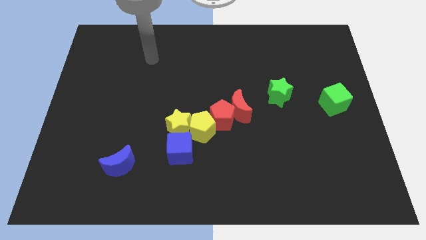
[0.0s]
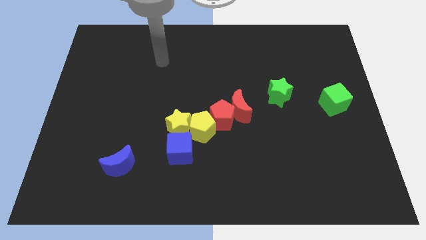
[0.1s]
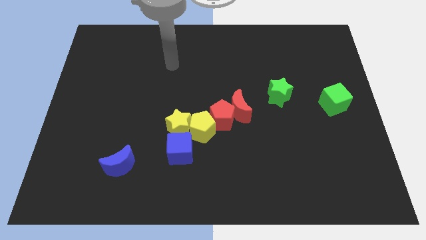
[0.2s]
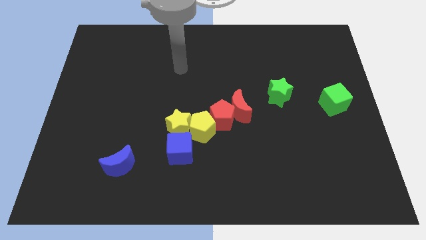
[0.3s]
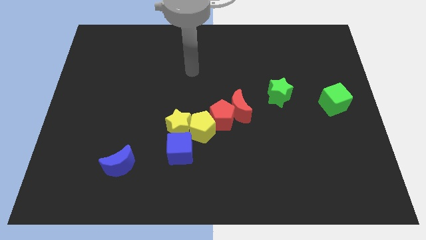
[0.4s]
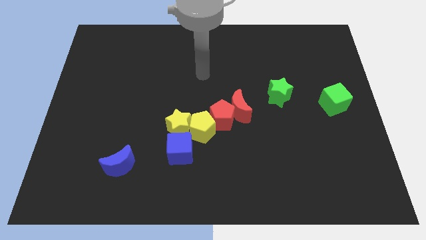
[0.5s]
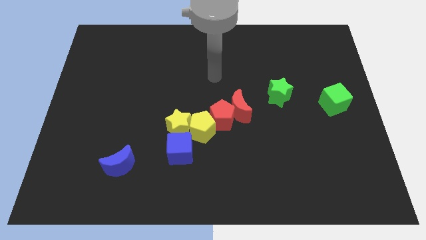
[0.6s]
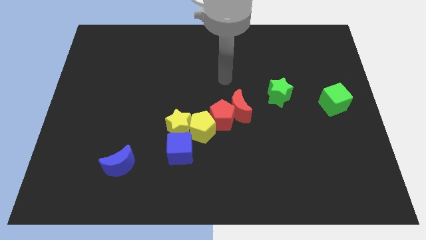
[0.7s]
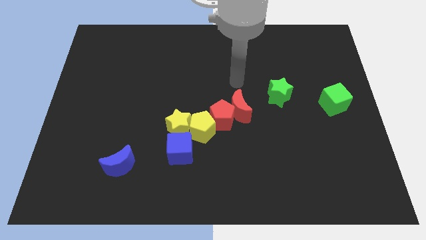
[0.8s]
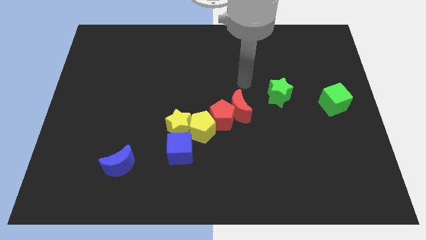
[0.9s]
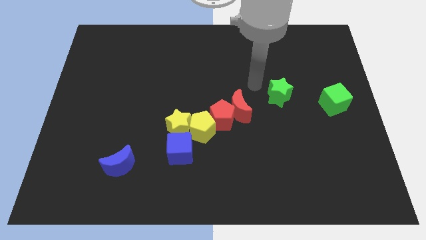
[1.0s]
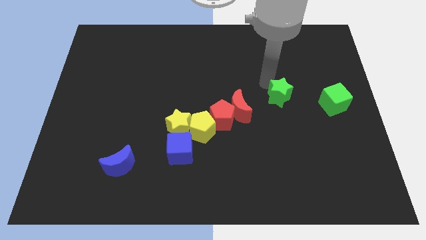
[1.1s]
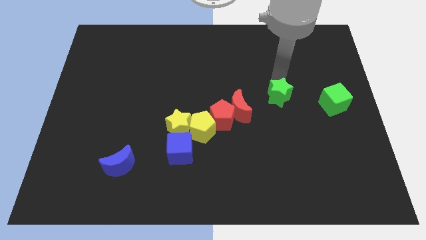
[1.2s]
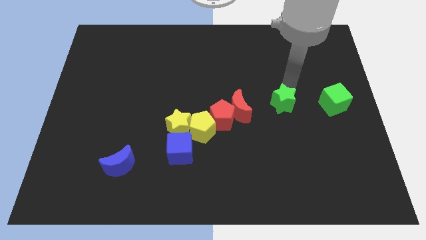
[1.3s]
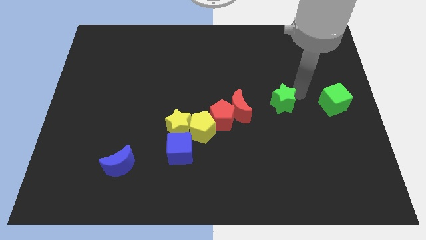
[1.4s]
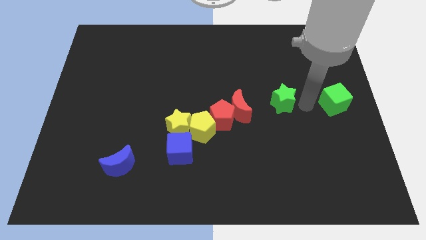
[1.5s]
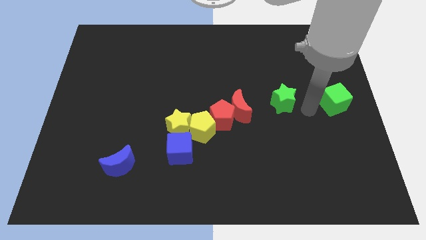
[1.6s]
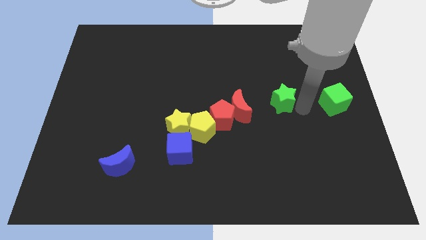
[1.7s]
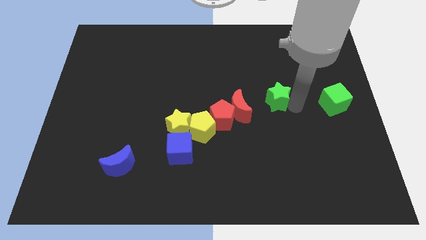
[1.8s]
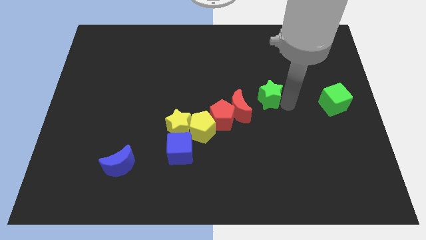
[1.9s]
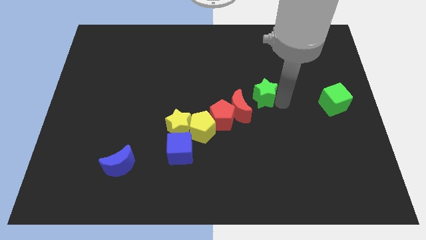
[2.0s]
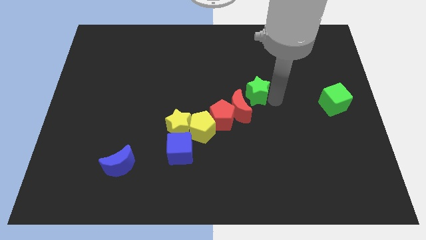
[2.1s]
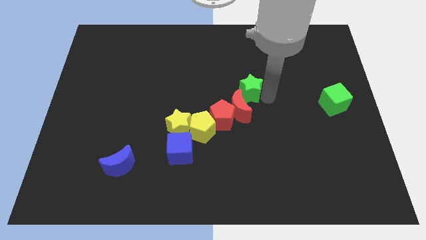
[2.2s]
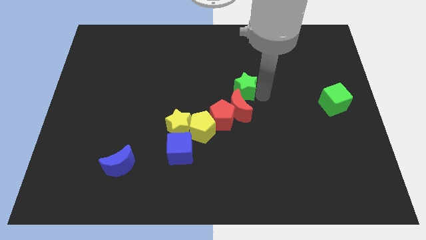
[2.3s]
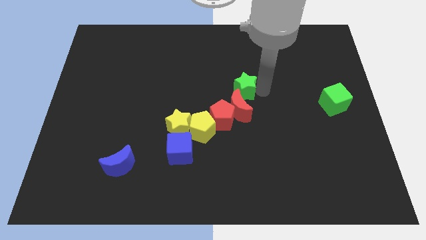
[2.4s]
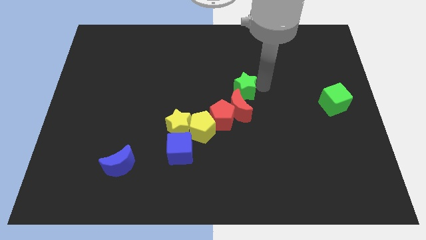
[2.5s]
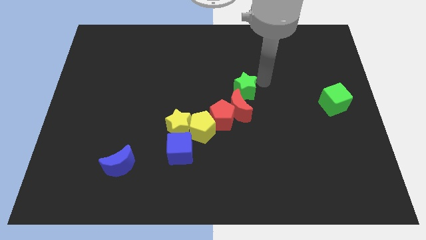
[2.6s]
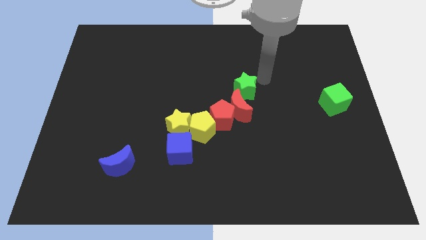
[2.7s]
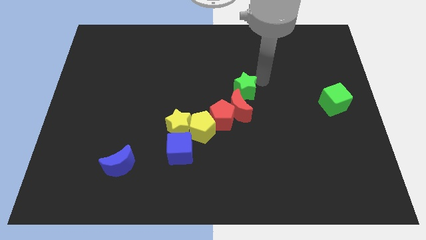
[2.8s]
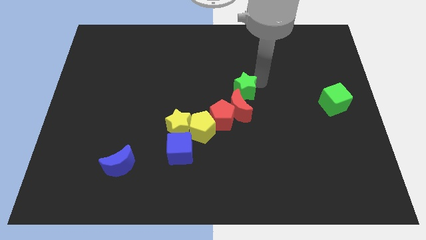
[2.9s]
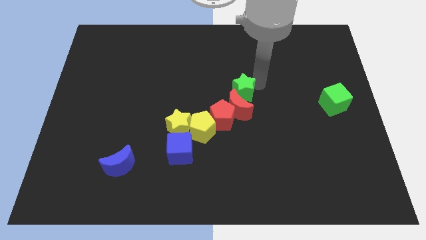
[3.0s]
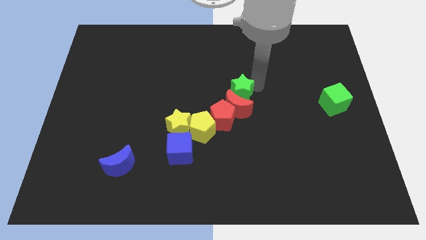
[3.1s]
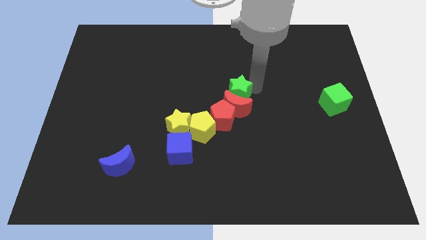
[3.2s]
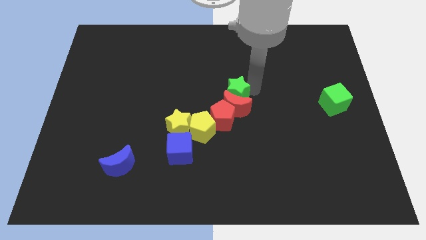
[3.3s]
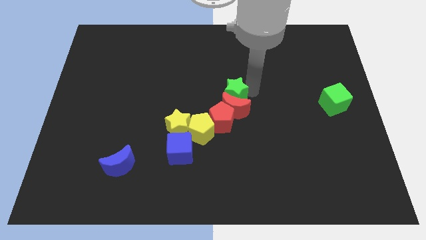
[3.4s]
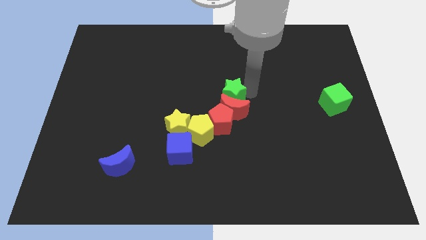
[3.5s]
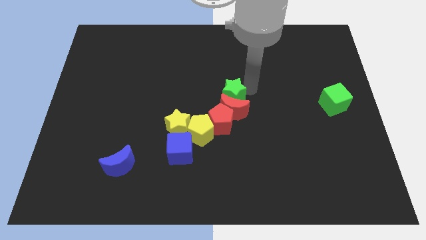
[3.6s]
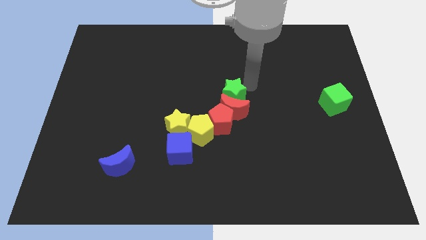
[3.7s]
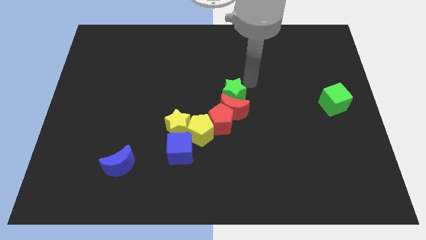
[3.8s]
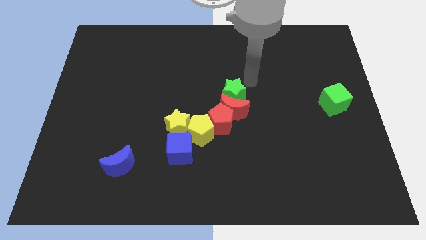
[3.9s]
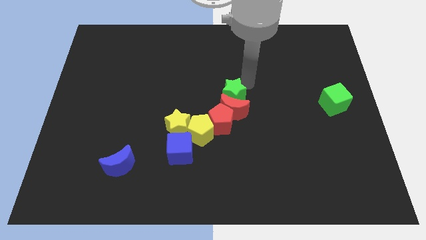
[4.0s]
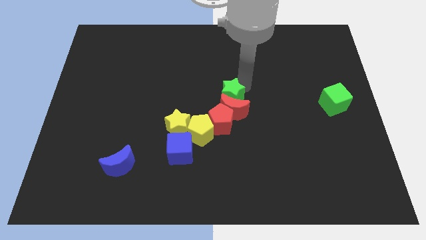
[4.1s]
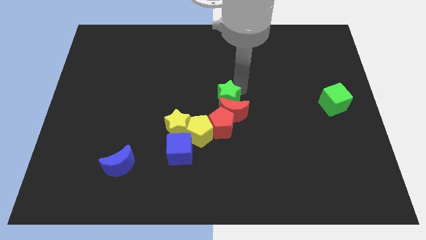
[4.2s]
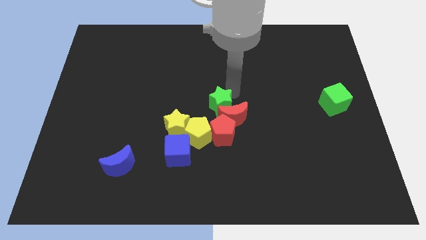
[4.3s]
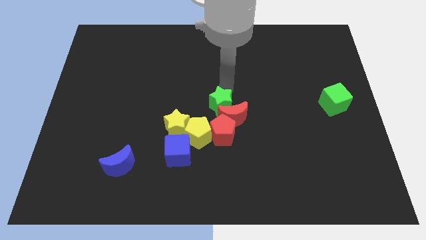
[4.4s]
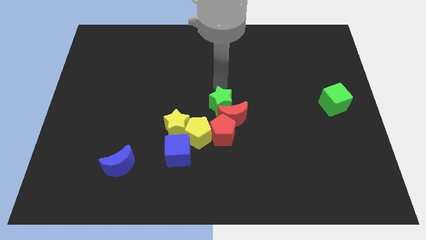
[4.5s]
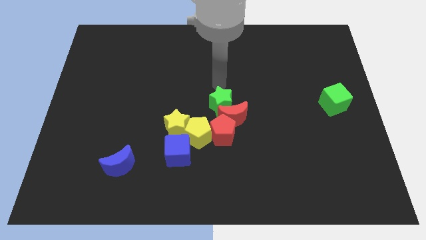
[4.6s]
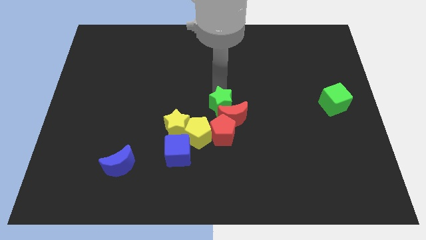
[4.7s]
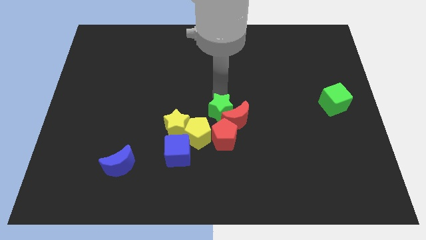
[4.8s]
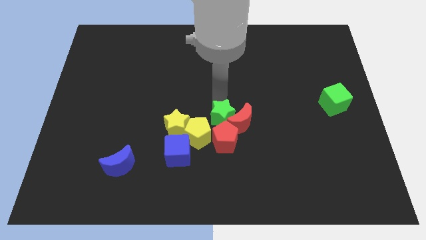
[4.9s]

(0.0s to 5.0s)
move the green star close to the red pentagon

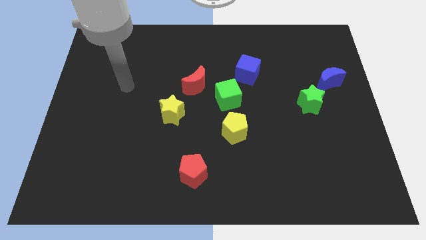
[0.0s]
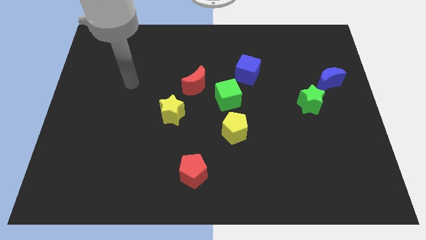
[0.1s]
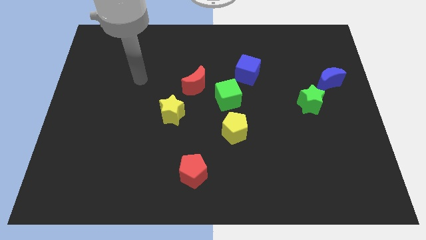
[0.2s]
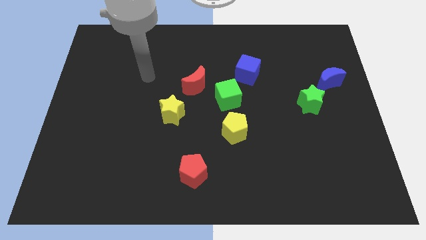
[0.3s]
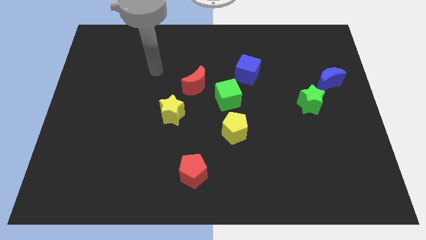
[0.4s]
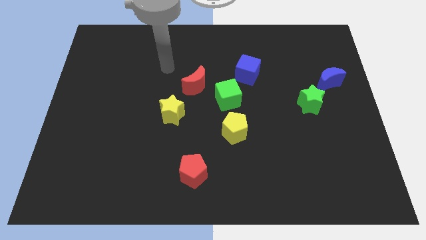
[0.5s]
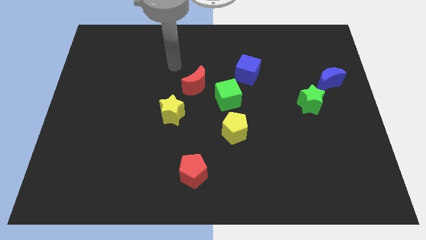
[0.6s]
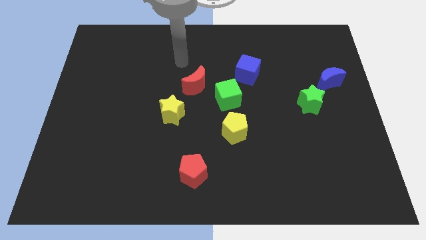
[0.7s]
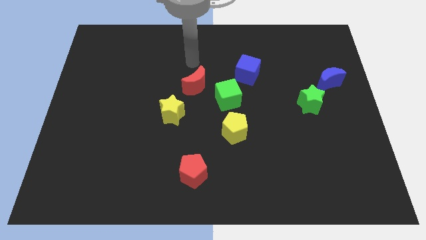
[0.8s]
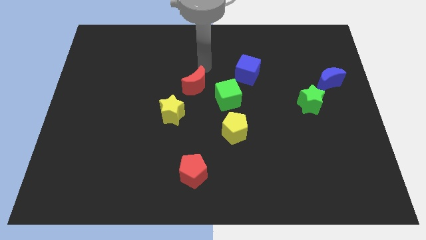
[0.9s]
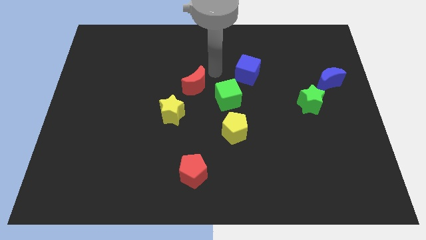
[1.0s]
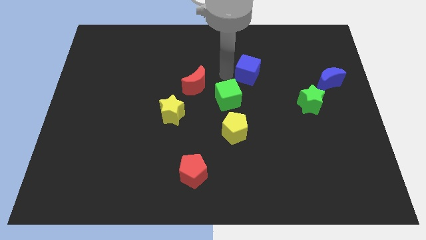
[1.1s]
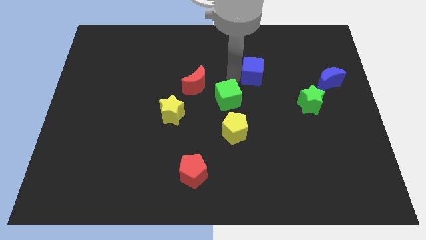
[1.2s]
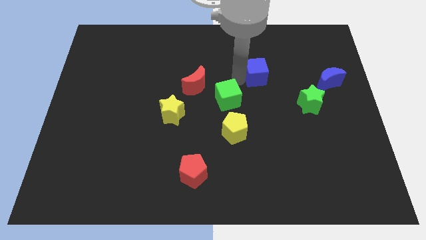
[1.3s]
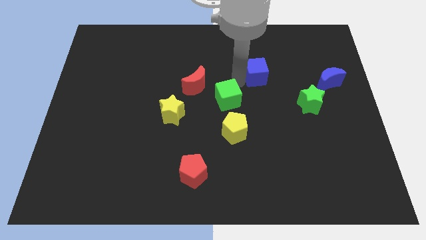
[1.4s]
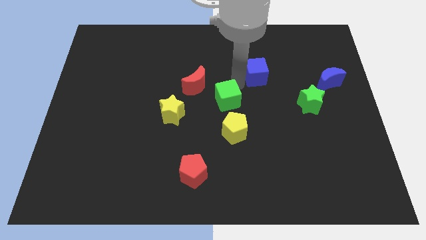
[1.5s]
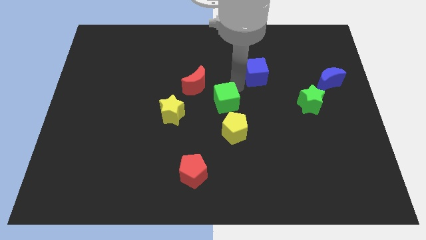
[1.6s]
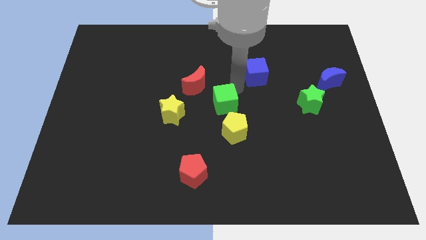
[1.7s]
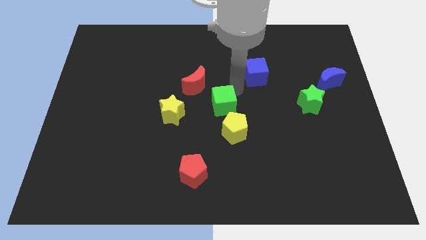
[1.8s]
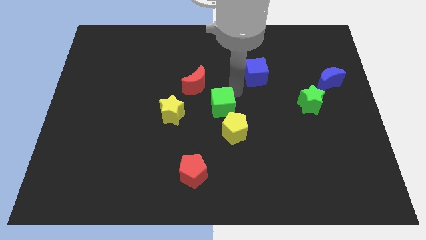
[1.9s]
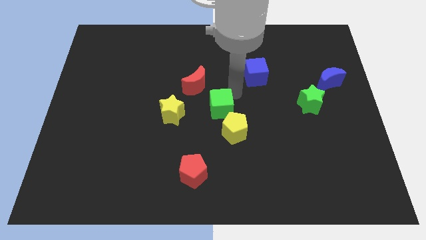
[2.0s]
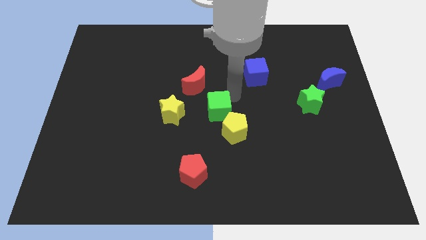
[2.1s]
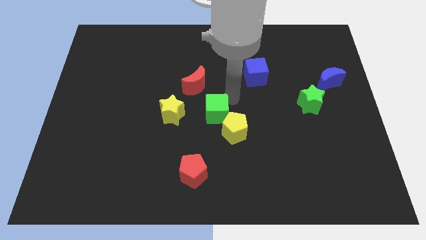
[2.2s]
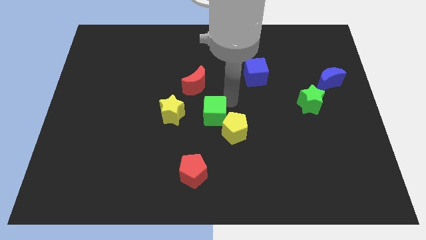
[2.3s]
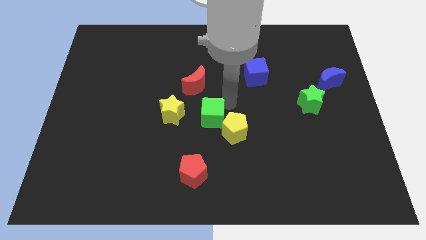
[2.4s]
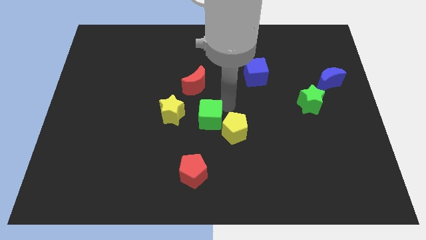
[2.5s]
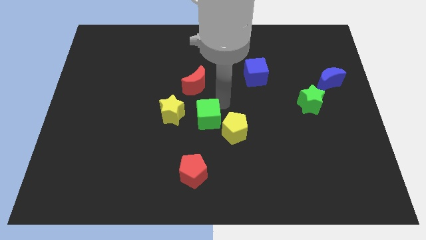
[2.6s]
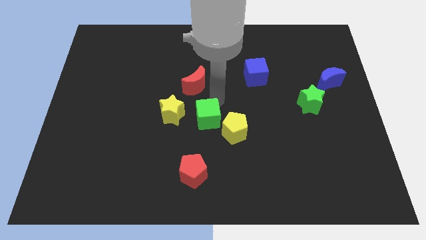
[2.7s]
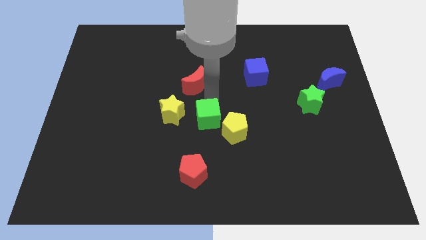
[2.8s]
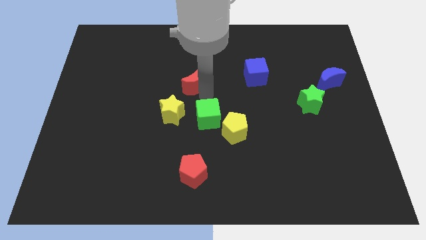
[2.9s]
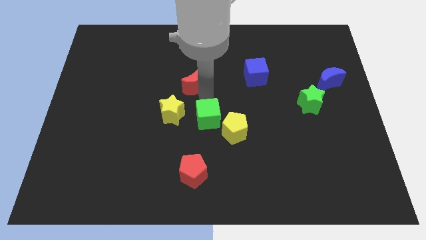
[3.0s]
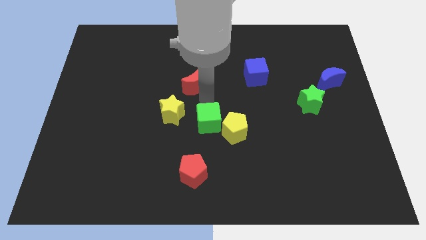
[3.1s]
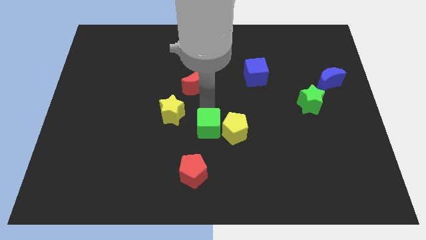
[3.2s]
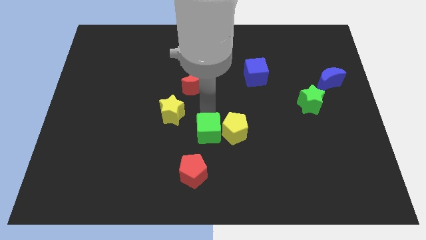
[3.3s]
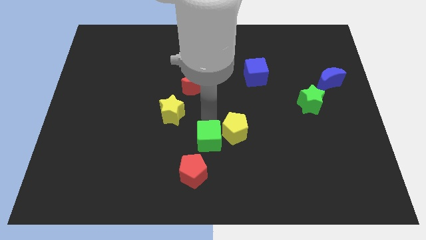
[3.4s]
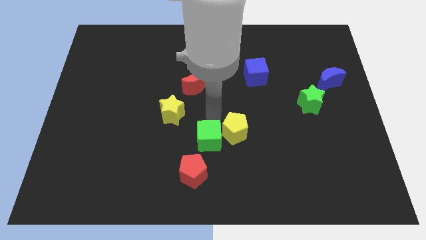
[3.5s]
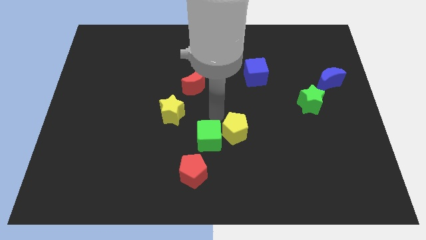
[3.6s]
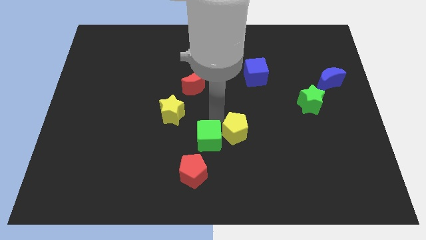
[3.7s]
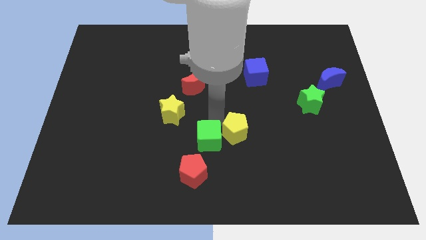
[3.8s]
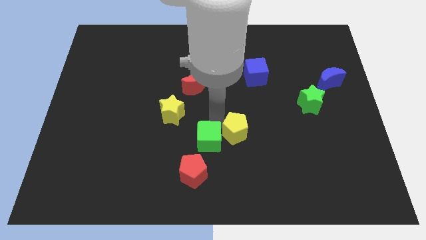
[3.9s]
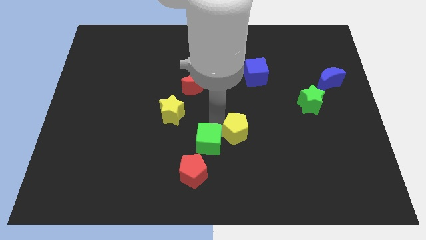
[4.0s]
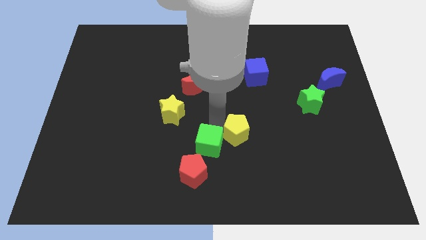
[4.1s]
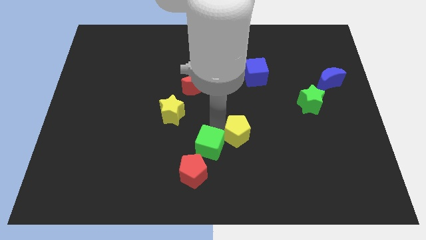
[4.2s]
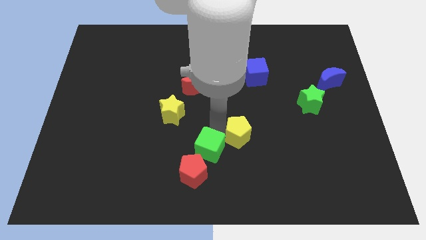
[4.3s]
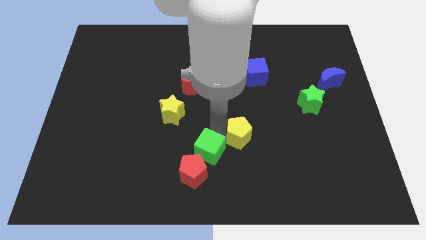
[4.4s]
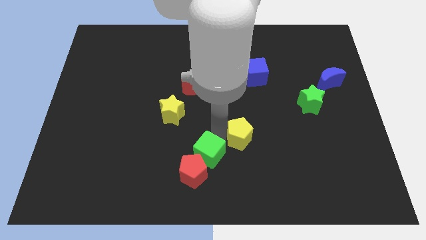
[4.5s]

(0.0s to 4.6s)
slide the green cube to the red pentagon
